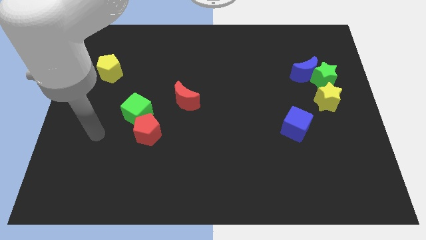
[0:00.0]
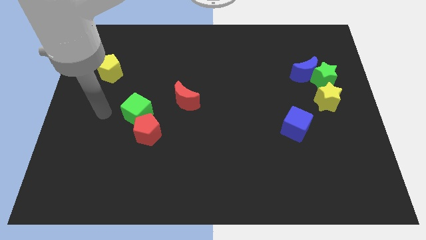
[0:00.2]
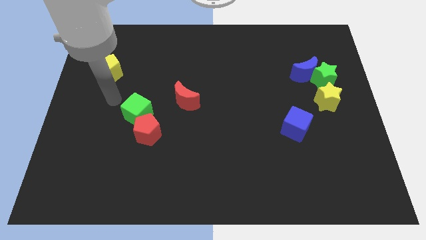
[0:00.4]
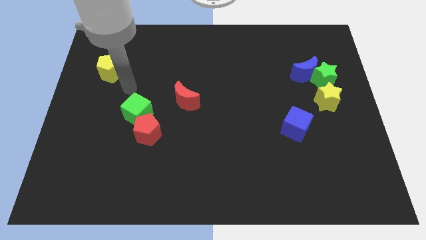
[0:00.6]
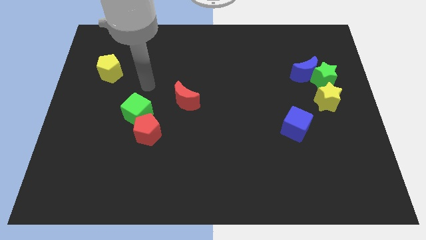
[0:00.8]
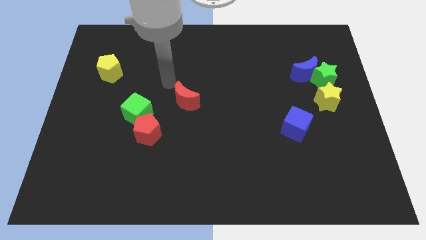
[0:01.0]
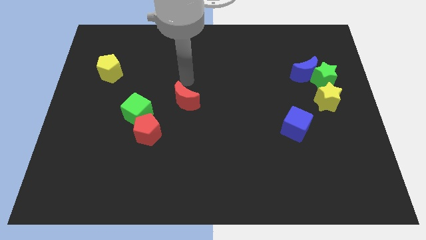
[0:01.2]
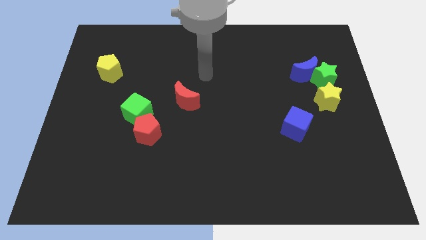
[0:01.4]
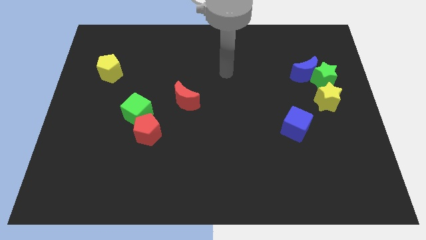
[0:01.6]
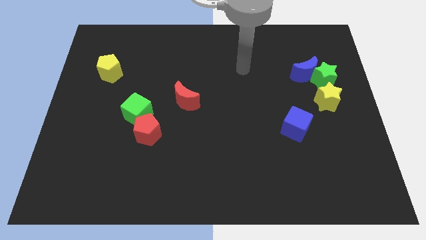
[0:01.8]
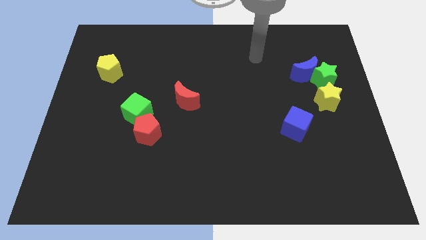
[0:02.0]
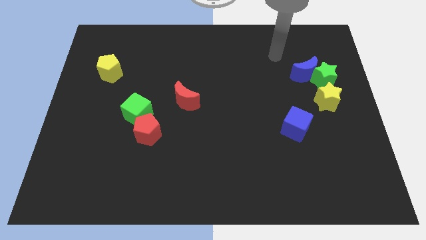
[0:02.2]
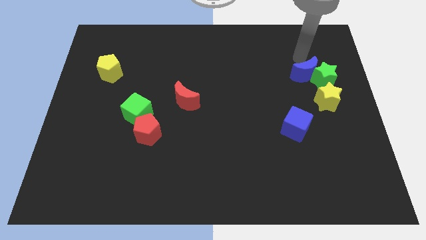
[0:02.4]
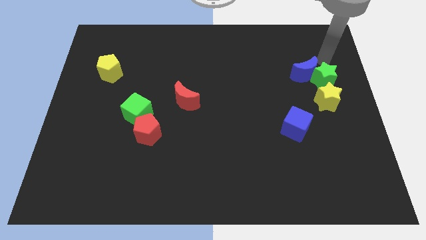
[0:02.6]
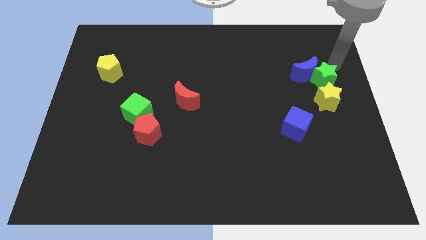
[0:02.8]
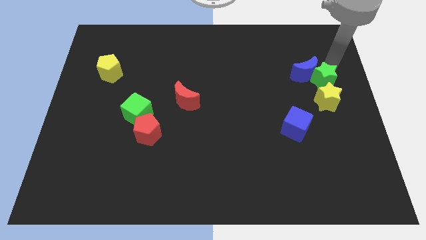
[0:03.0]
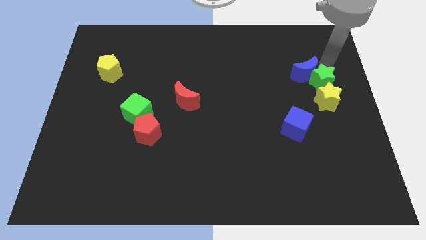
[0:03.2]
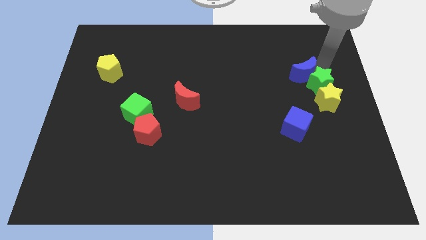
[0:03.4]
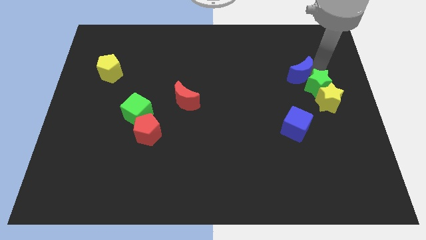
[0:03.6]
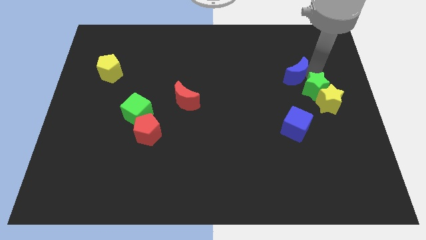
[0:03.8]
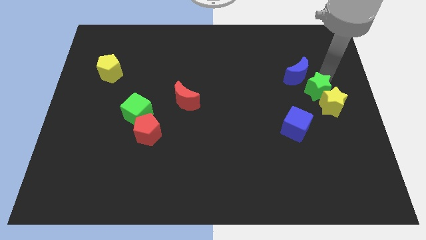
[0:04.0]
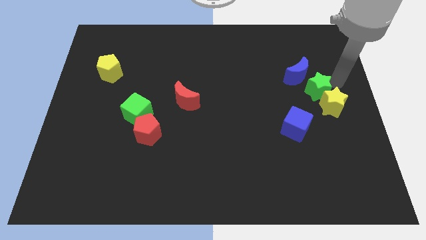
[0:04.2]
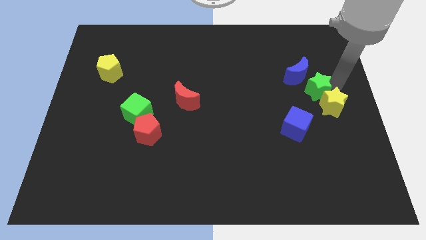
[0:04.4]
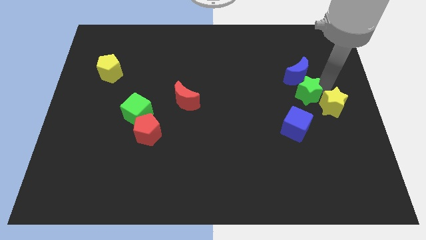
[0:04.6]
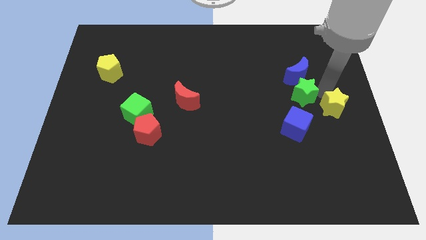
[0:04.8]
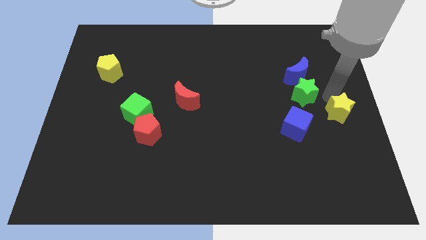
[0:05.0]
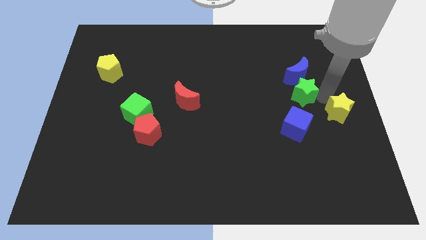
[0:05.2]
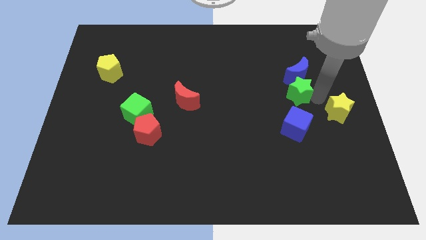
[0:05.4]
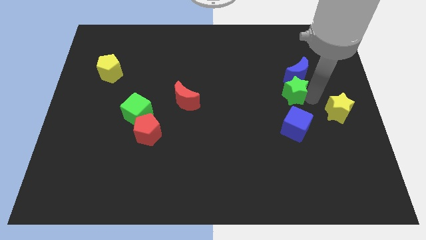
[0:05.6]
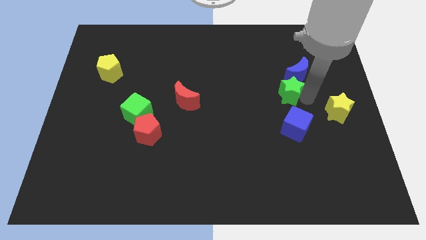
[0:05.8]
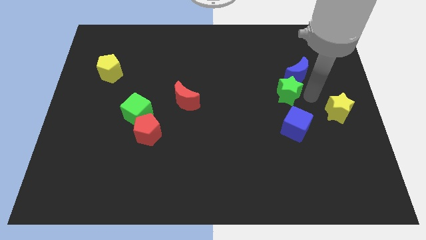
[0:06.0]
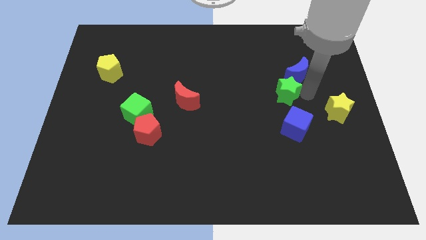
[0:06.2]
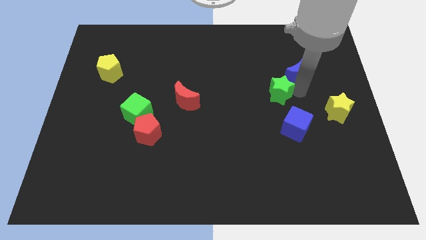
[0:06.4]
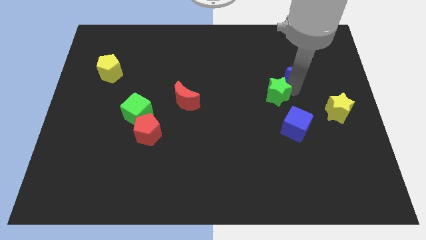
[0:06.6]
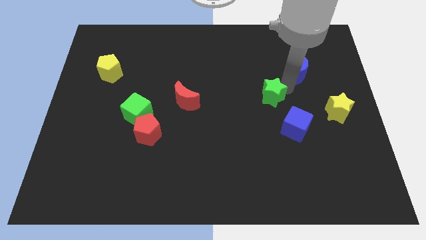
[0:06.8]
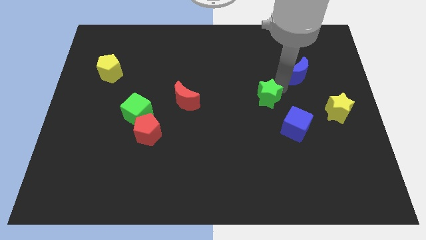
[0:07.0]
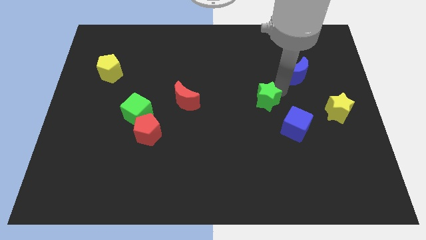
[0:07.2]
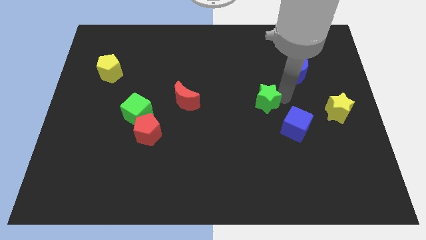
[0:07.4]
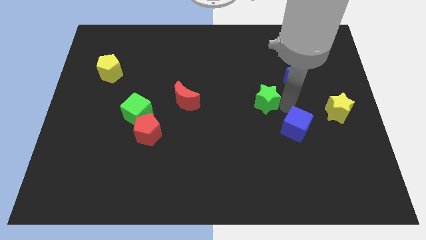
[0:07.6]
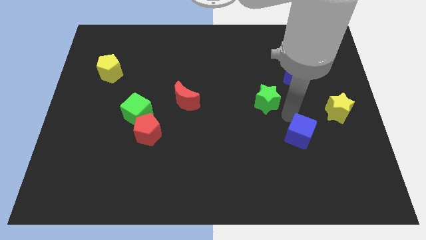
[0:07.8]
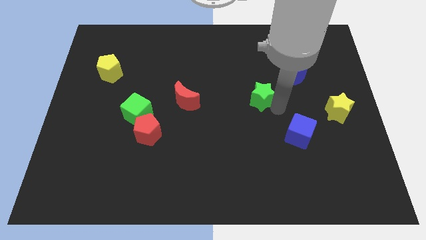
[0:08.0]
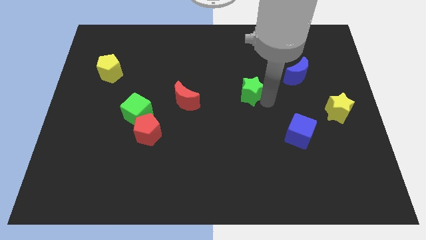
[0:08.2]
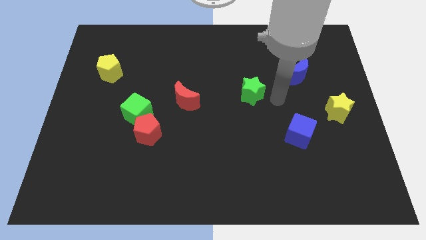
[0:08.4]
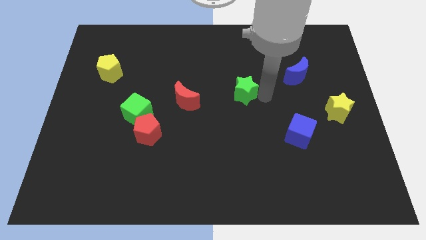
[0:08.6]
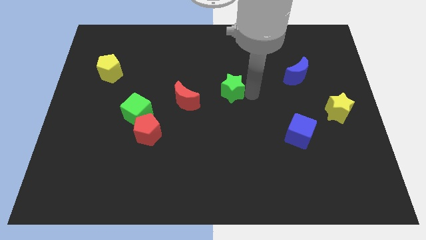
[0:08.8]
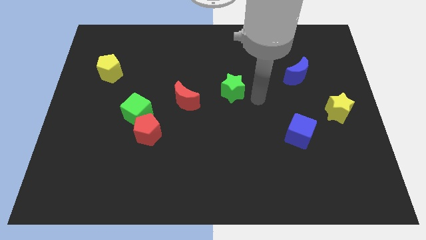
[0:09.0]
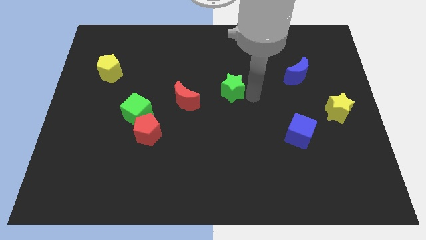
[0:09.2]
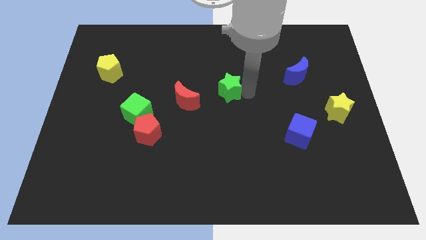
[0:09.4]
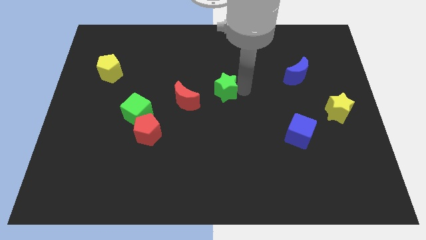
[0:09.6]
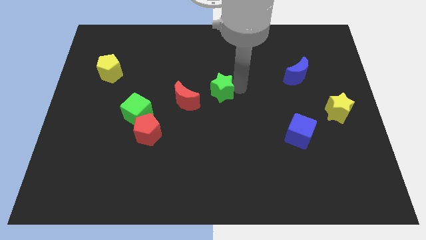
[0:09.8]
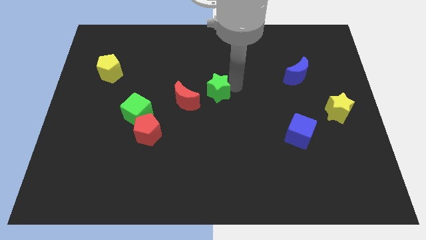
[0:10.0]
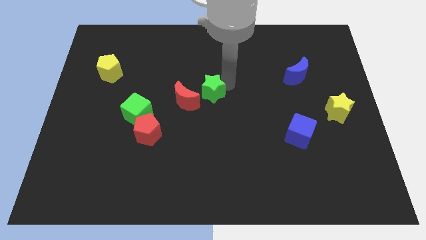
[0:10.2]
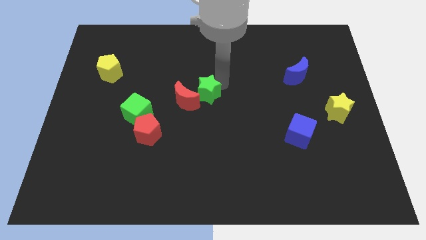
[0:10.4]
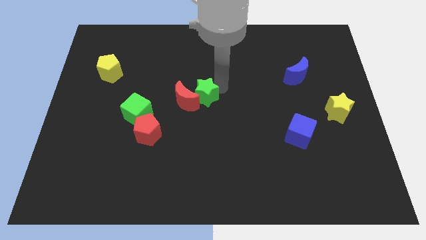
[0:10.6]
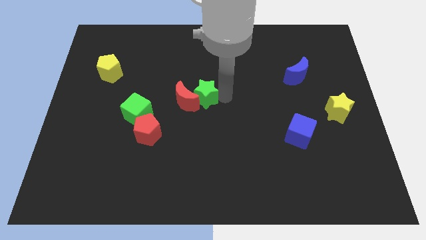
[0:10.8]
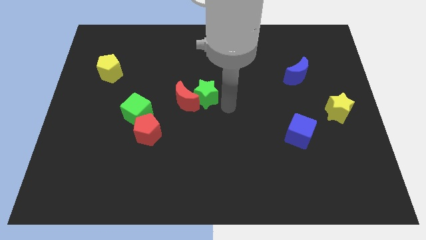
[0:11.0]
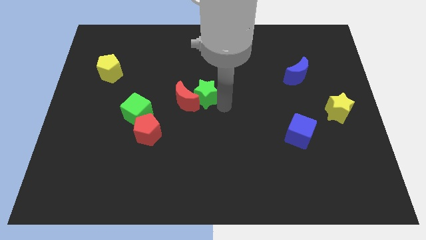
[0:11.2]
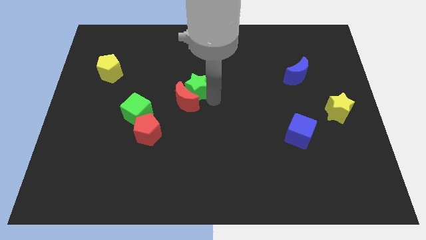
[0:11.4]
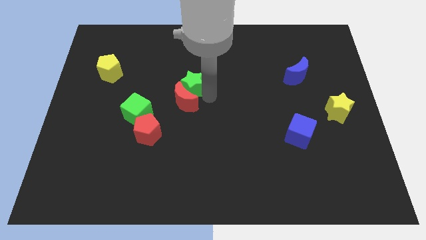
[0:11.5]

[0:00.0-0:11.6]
move the green star to the top left side of the red moon

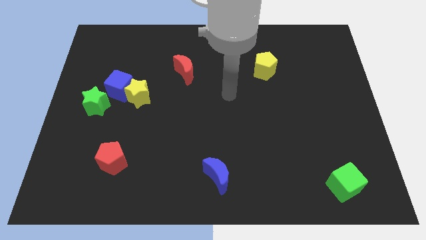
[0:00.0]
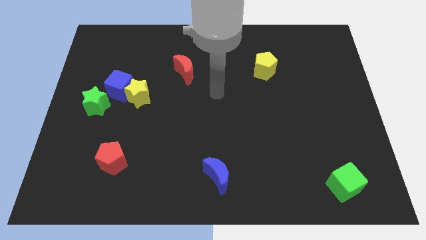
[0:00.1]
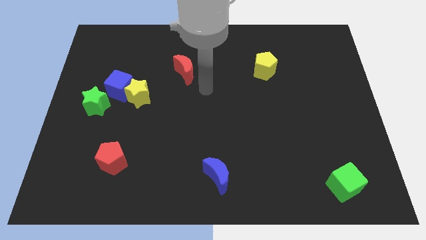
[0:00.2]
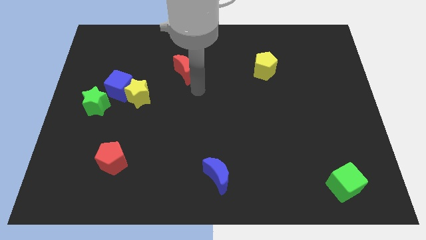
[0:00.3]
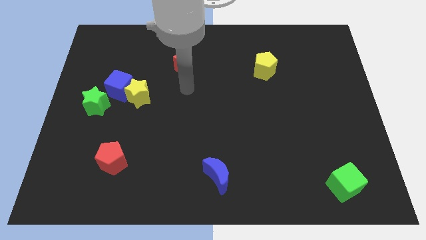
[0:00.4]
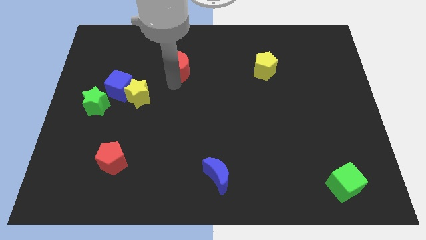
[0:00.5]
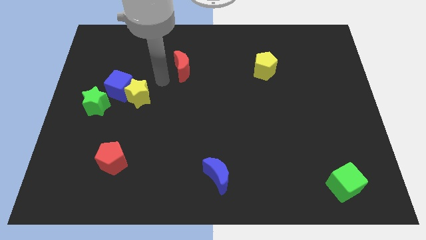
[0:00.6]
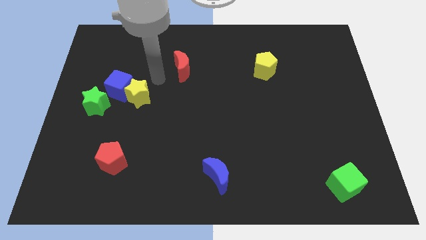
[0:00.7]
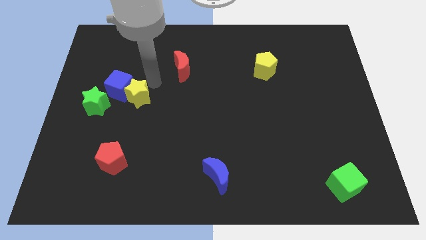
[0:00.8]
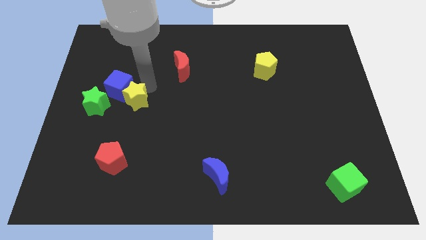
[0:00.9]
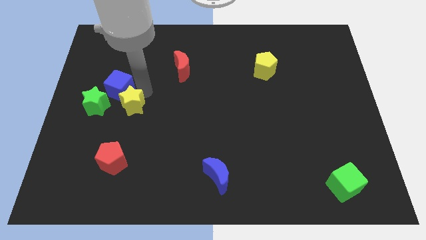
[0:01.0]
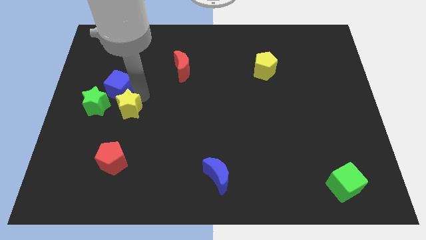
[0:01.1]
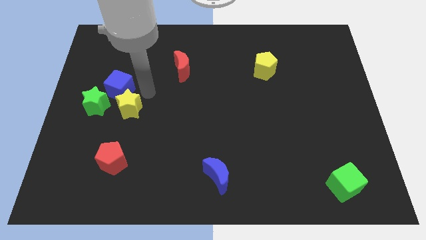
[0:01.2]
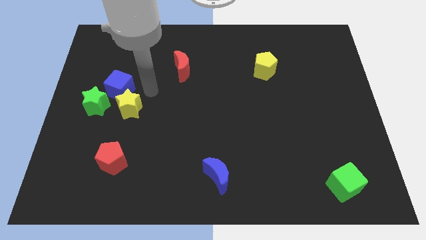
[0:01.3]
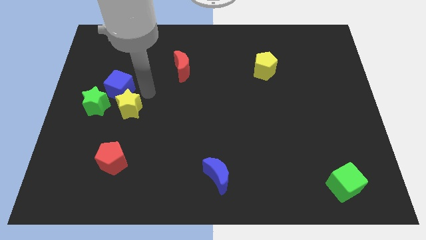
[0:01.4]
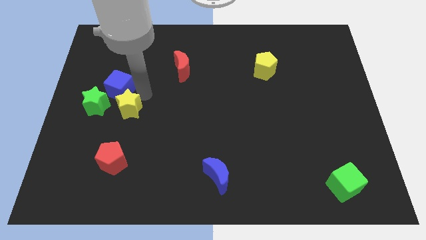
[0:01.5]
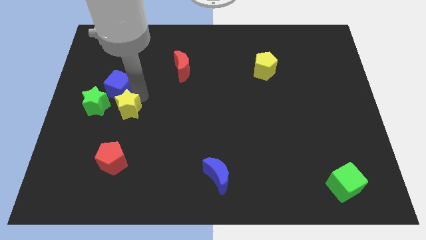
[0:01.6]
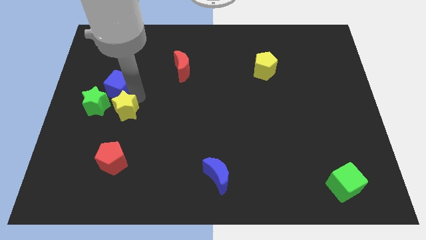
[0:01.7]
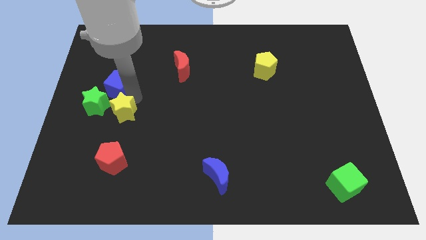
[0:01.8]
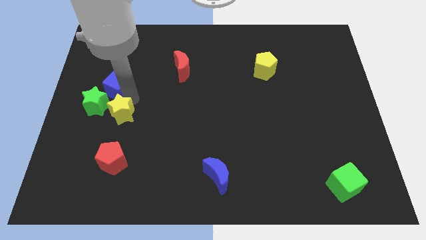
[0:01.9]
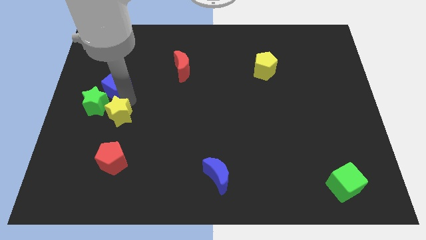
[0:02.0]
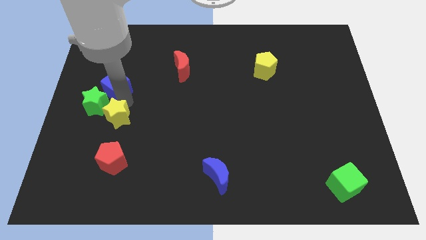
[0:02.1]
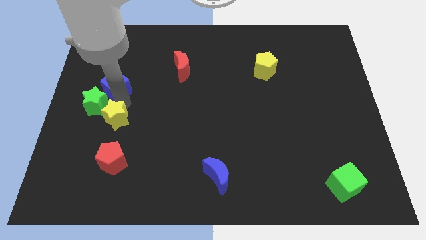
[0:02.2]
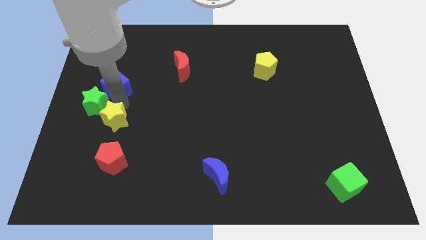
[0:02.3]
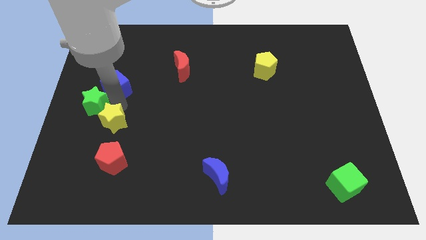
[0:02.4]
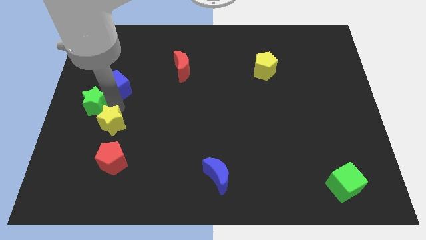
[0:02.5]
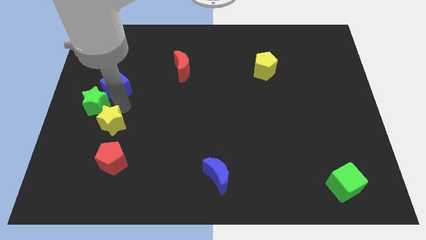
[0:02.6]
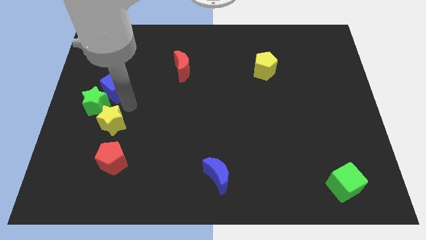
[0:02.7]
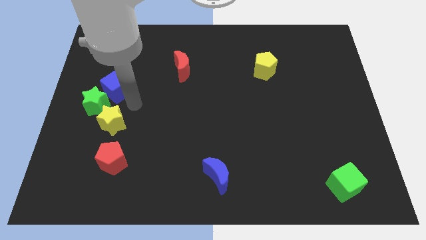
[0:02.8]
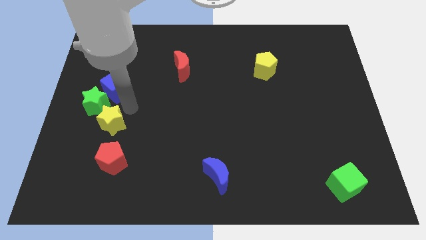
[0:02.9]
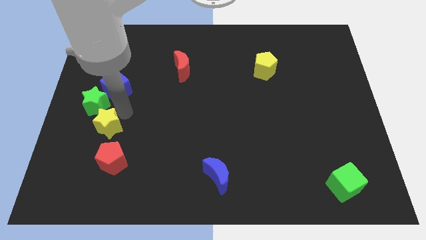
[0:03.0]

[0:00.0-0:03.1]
slide the yellow star to the top left side of the red pentagon

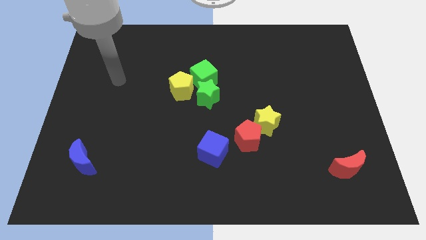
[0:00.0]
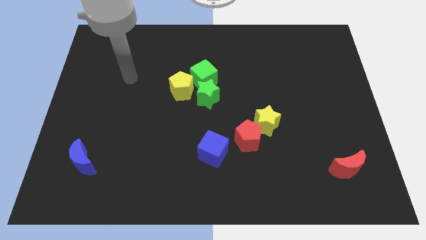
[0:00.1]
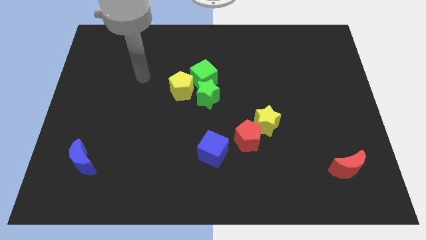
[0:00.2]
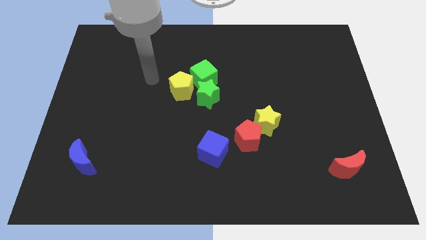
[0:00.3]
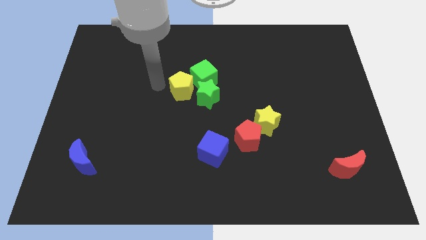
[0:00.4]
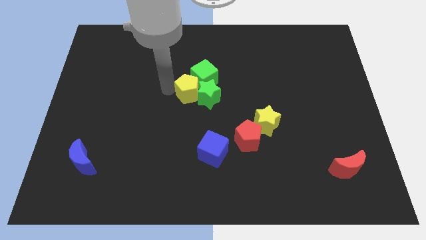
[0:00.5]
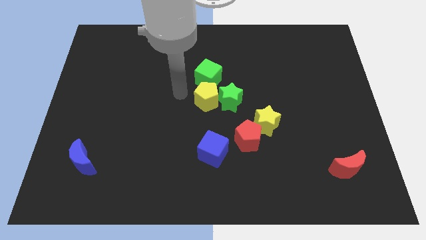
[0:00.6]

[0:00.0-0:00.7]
move the green star to the top of the red pentagon
